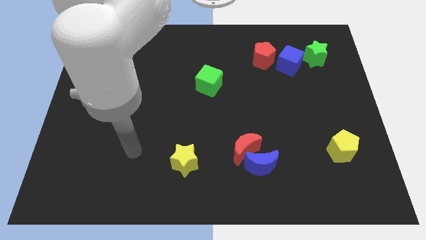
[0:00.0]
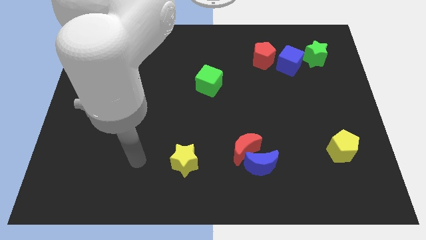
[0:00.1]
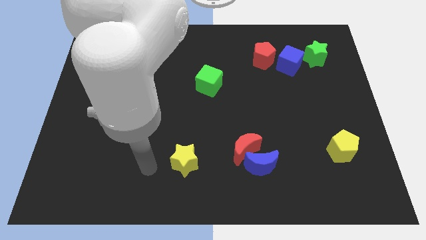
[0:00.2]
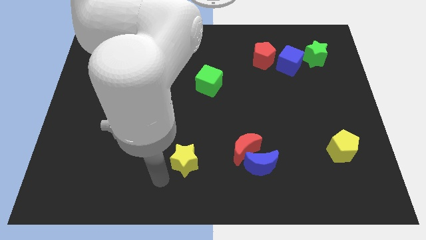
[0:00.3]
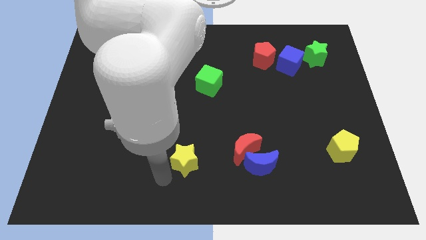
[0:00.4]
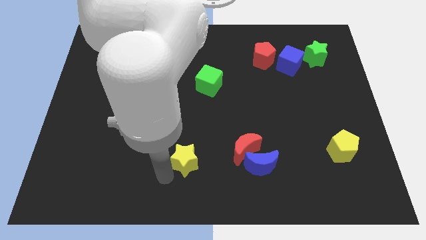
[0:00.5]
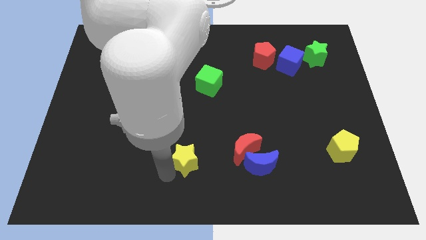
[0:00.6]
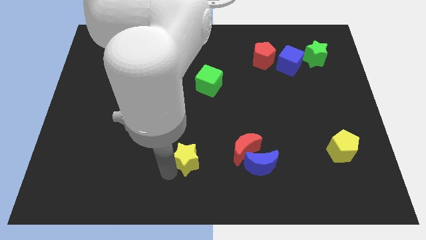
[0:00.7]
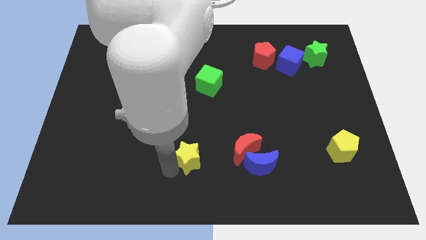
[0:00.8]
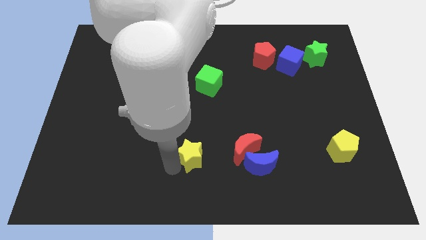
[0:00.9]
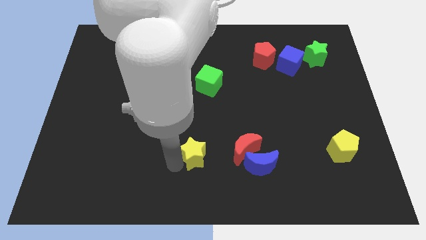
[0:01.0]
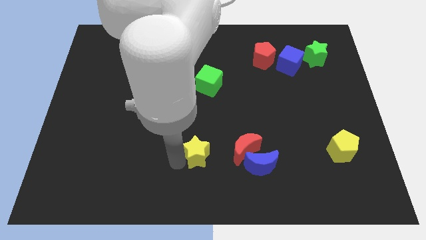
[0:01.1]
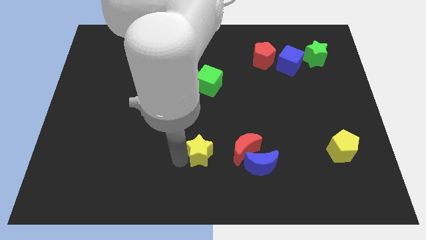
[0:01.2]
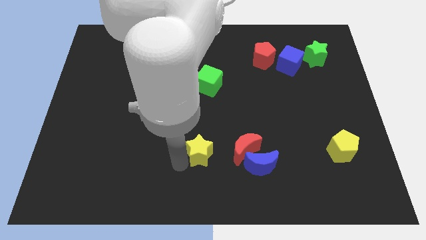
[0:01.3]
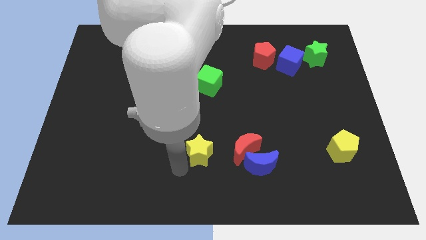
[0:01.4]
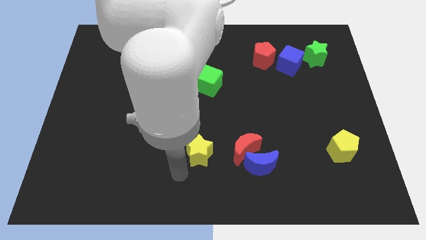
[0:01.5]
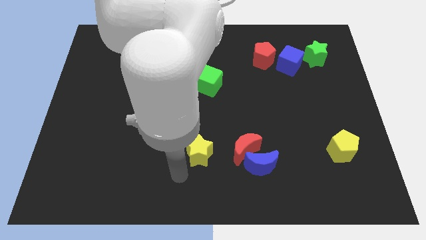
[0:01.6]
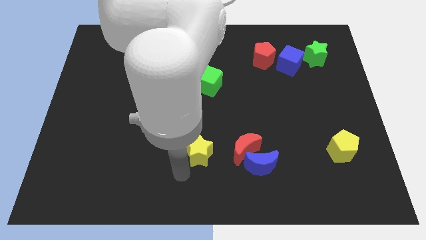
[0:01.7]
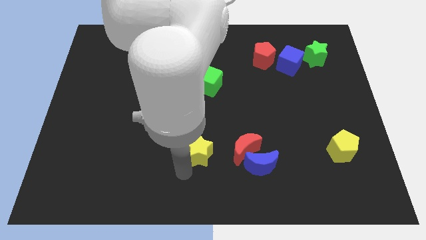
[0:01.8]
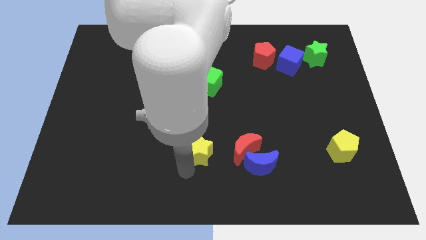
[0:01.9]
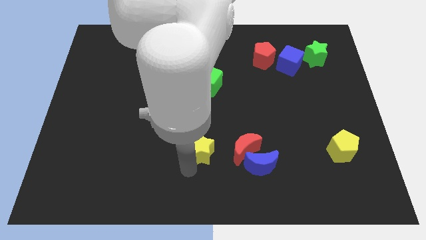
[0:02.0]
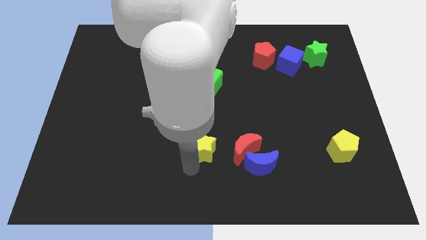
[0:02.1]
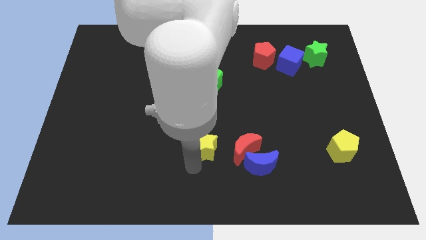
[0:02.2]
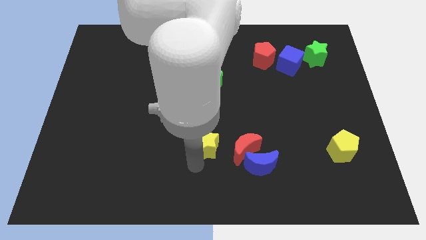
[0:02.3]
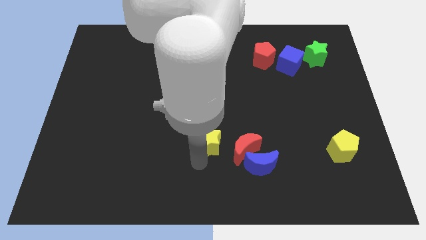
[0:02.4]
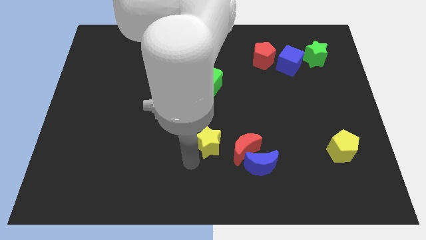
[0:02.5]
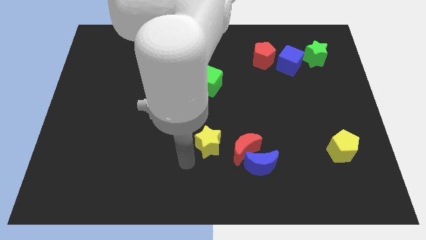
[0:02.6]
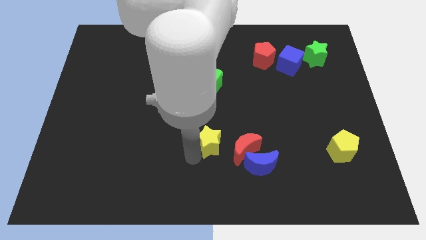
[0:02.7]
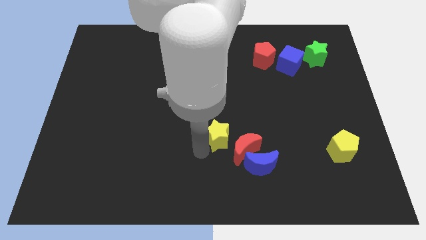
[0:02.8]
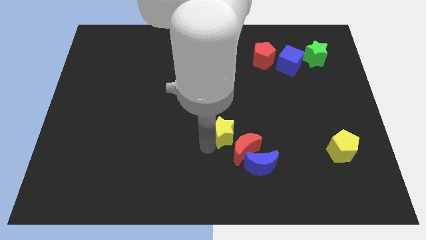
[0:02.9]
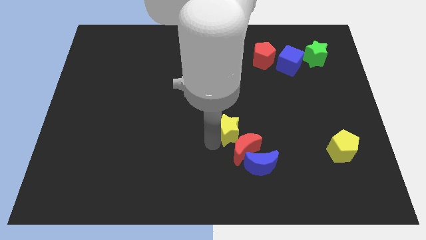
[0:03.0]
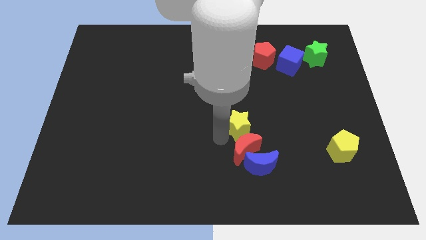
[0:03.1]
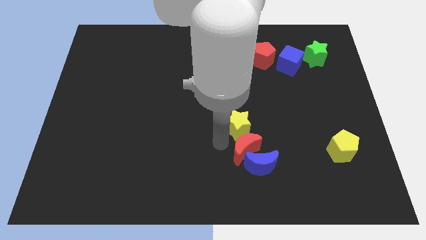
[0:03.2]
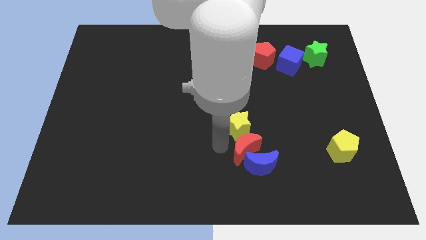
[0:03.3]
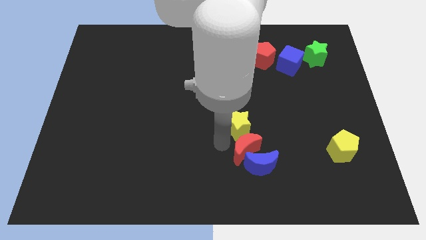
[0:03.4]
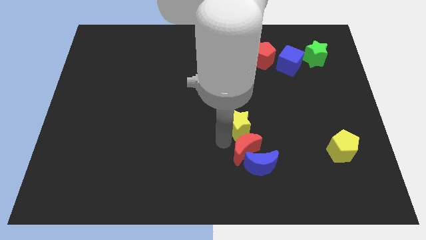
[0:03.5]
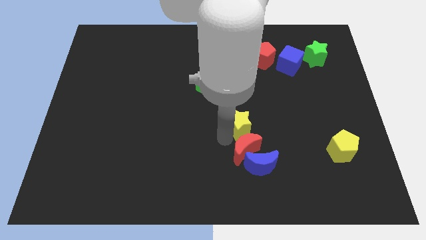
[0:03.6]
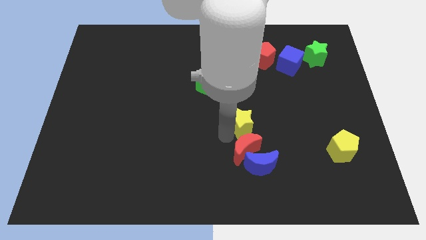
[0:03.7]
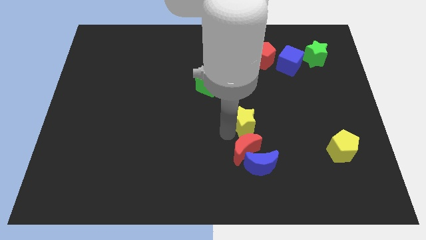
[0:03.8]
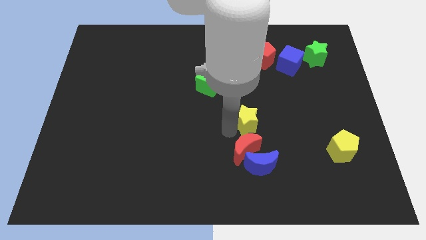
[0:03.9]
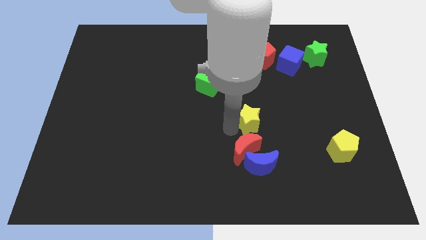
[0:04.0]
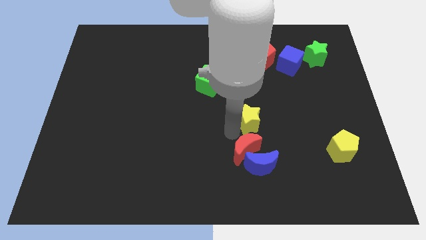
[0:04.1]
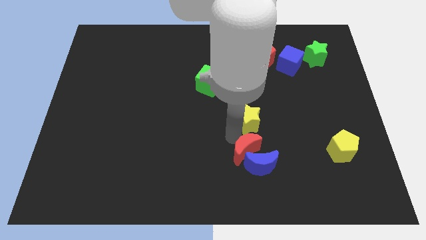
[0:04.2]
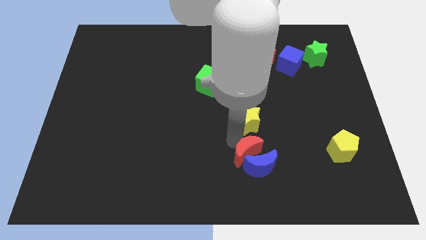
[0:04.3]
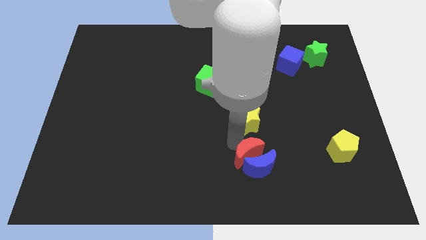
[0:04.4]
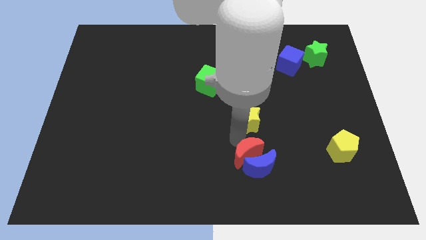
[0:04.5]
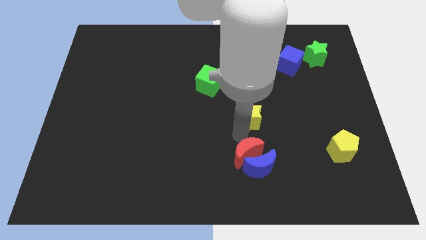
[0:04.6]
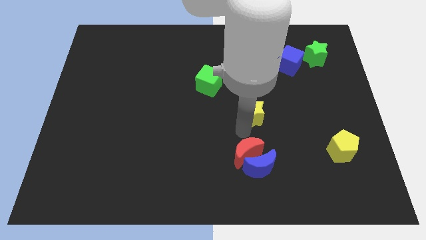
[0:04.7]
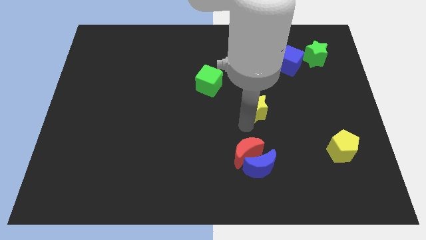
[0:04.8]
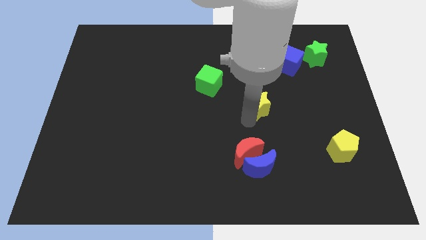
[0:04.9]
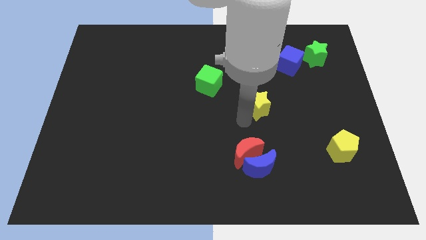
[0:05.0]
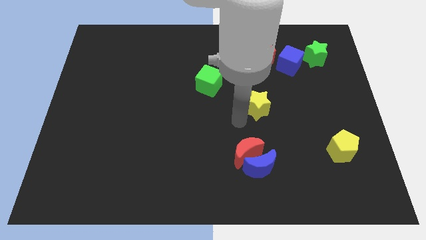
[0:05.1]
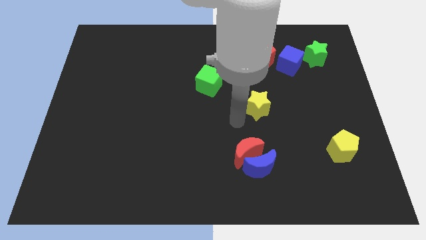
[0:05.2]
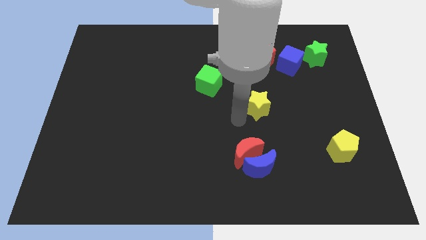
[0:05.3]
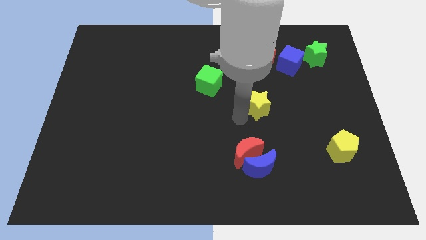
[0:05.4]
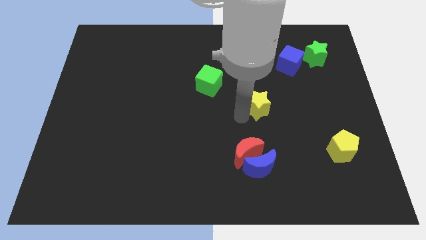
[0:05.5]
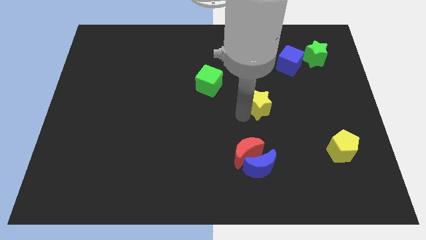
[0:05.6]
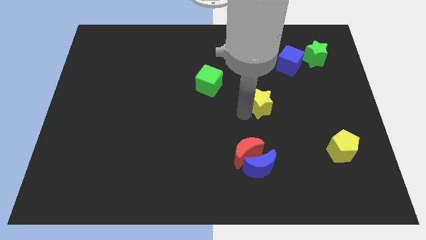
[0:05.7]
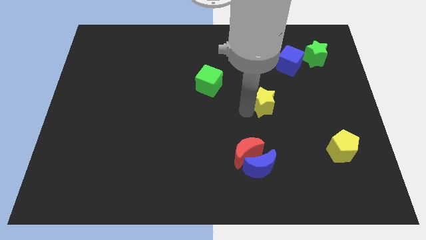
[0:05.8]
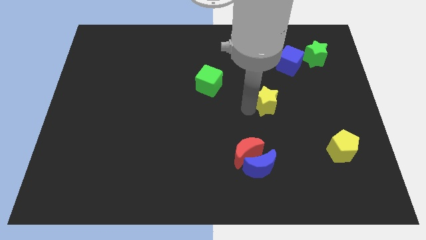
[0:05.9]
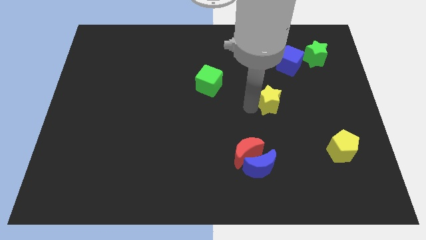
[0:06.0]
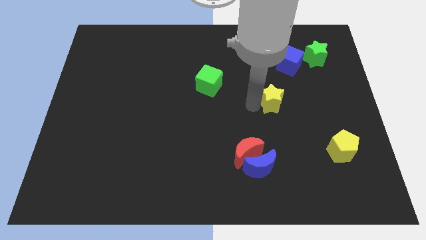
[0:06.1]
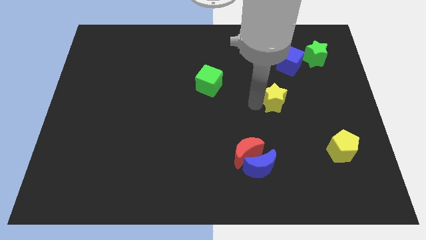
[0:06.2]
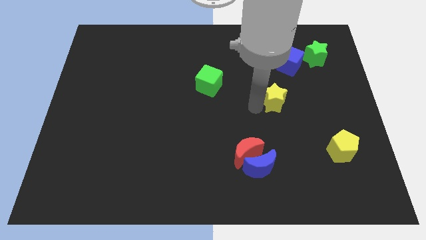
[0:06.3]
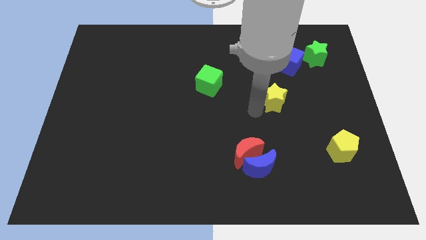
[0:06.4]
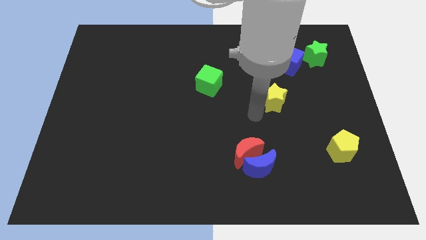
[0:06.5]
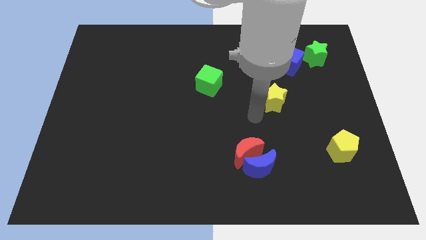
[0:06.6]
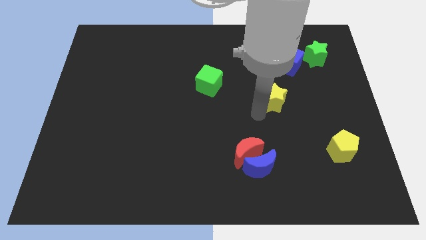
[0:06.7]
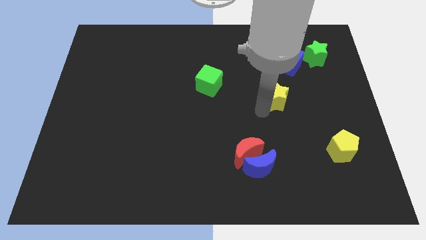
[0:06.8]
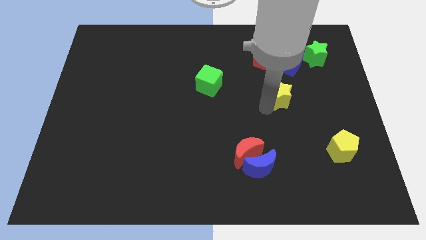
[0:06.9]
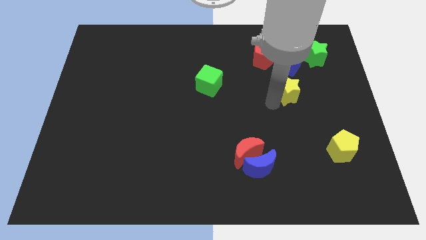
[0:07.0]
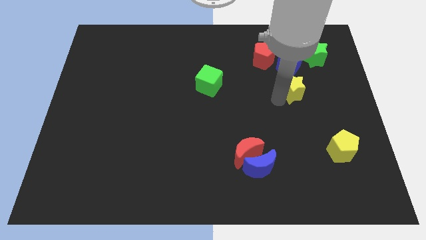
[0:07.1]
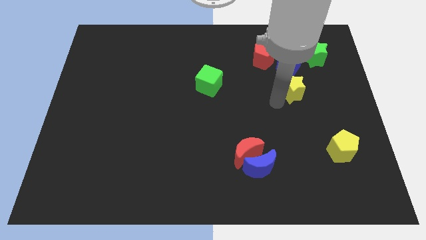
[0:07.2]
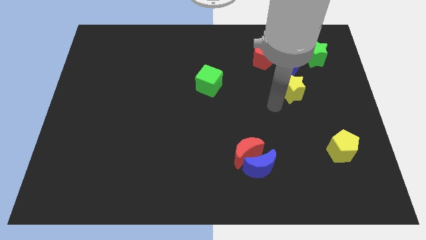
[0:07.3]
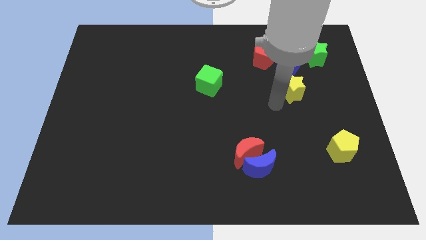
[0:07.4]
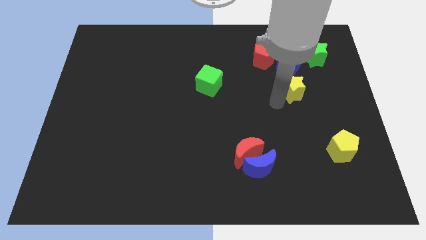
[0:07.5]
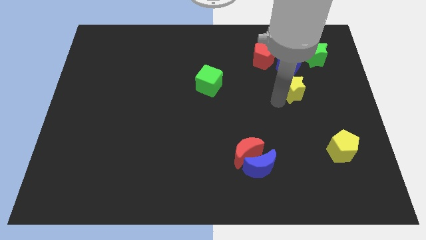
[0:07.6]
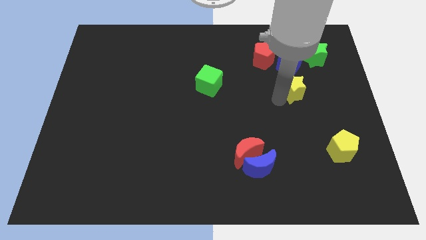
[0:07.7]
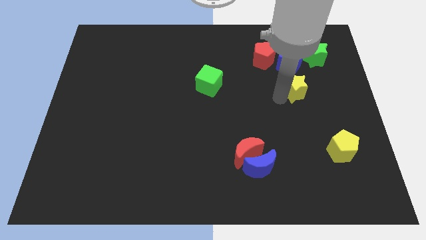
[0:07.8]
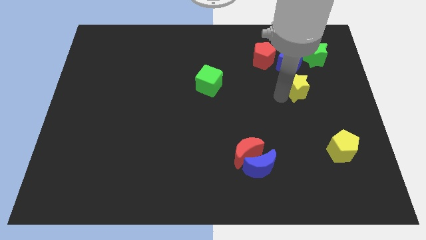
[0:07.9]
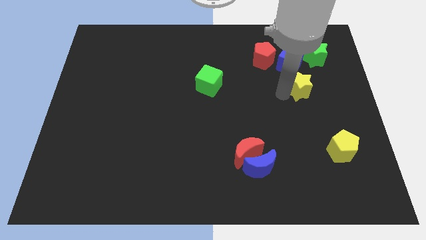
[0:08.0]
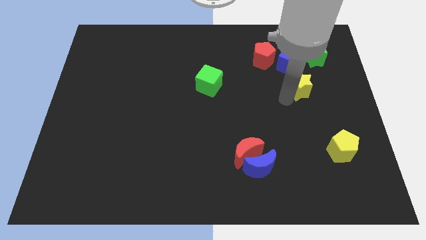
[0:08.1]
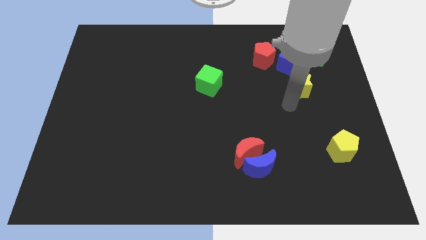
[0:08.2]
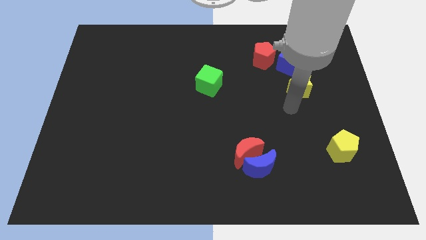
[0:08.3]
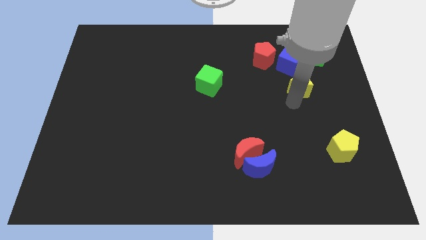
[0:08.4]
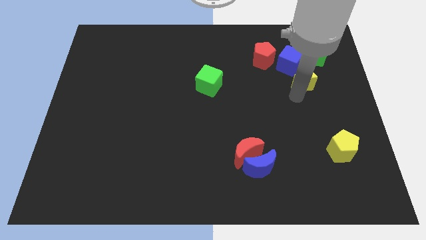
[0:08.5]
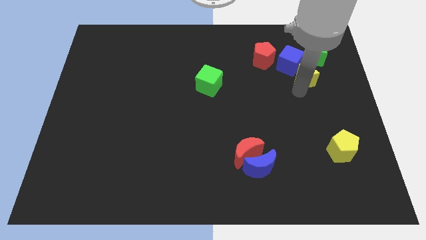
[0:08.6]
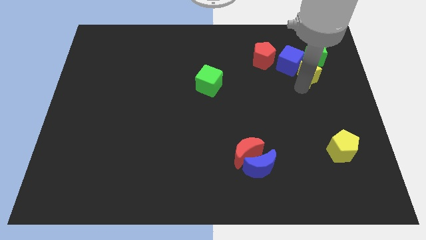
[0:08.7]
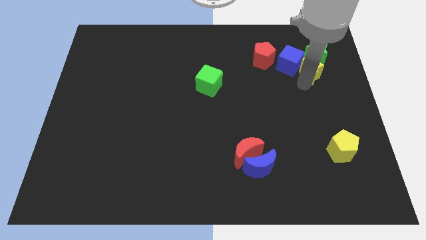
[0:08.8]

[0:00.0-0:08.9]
slide the yellow star towards the green star
